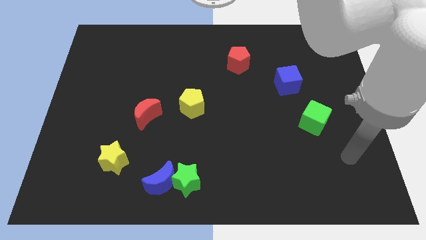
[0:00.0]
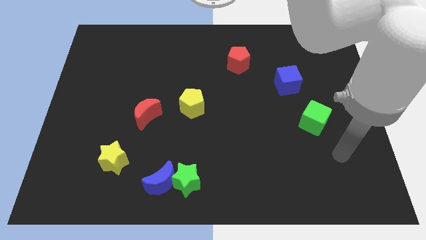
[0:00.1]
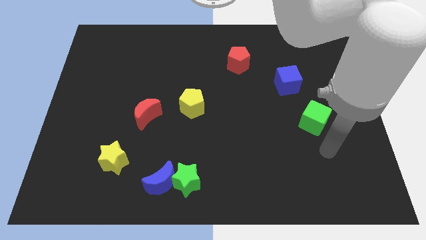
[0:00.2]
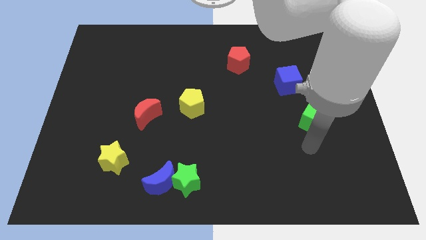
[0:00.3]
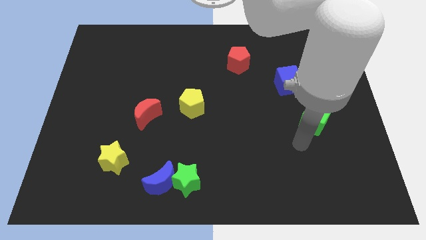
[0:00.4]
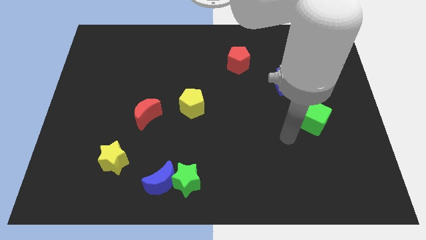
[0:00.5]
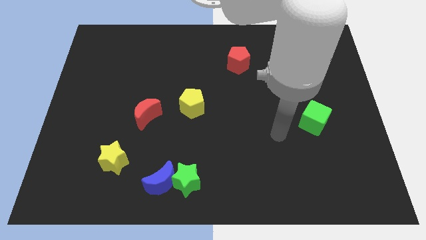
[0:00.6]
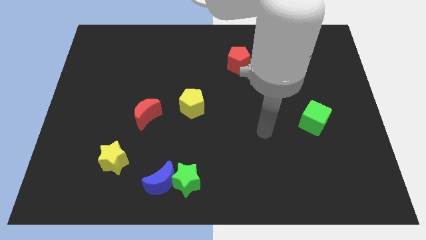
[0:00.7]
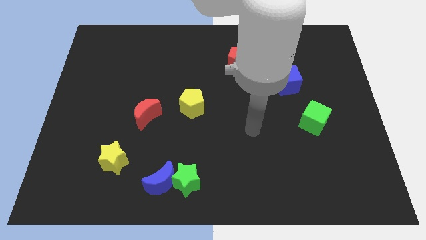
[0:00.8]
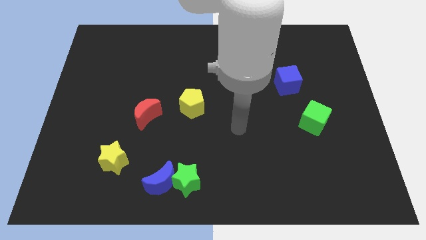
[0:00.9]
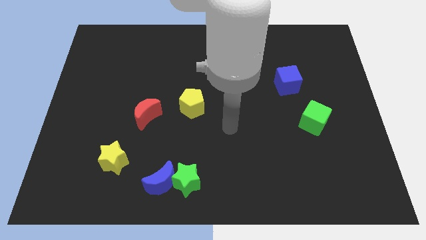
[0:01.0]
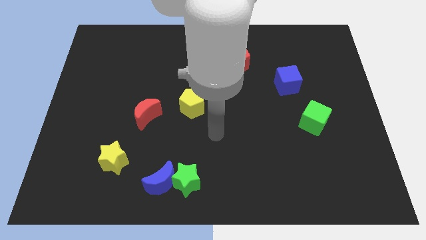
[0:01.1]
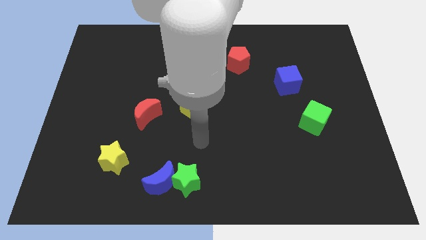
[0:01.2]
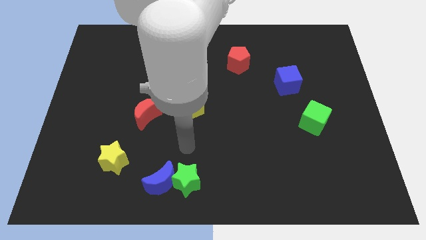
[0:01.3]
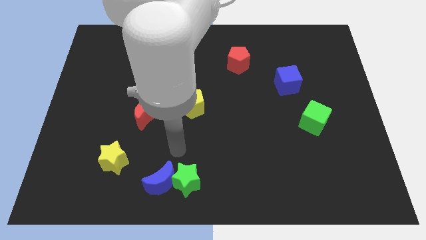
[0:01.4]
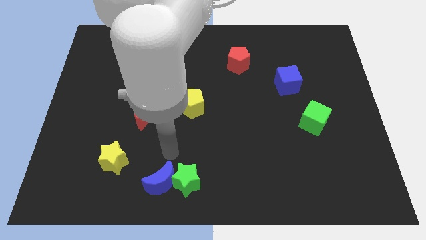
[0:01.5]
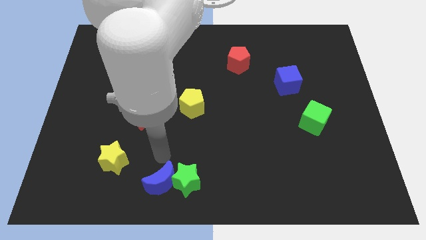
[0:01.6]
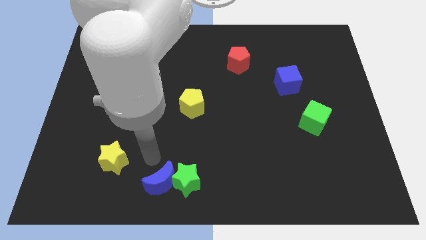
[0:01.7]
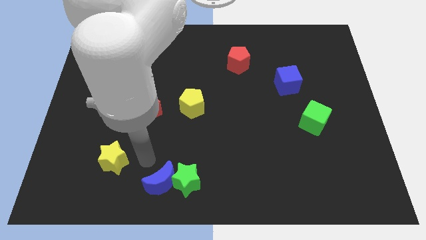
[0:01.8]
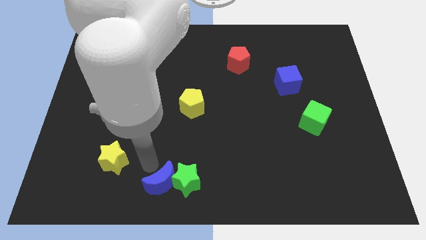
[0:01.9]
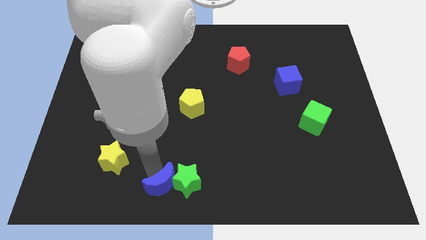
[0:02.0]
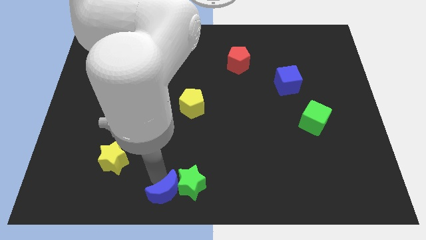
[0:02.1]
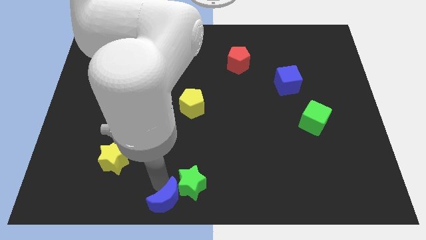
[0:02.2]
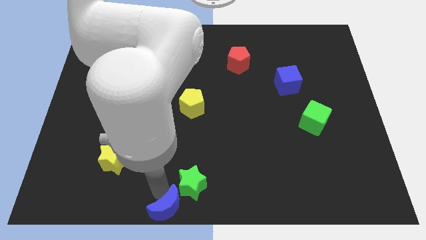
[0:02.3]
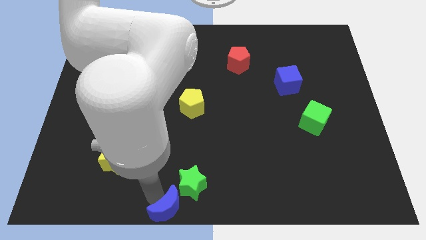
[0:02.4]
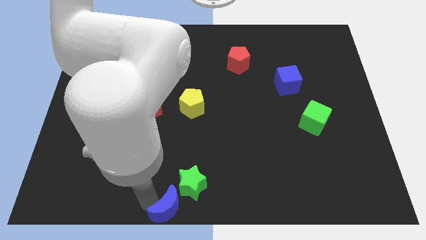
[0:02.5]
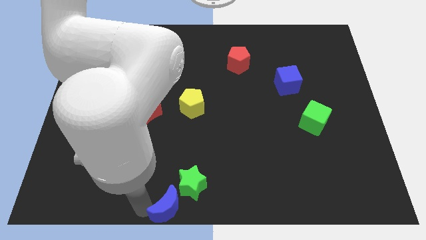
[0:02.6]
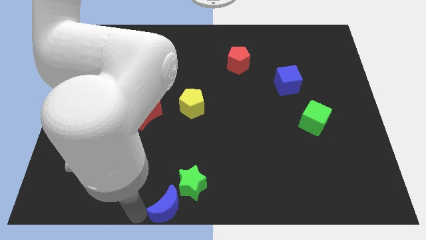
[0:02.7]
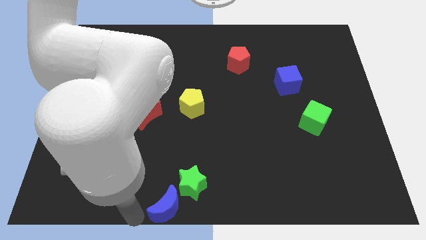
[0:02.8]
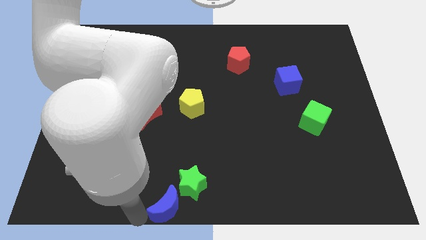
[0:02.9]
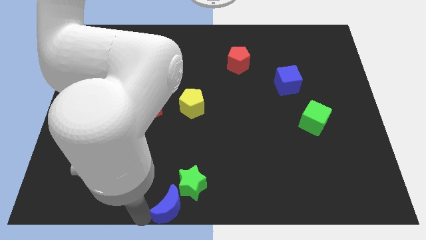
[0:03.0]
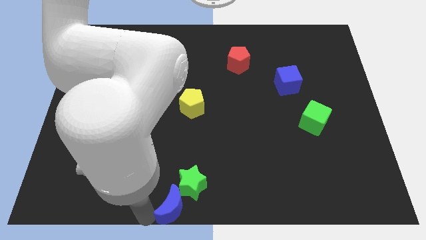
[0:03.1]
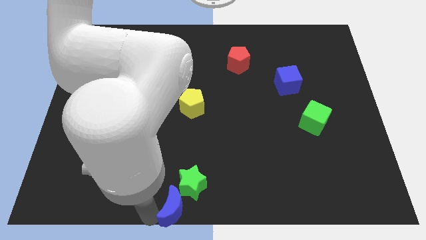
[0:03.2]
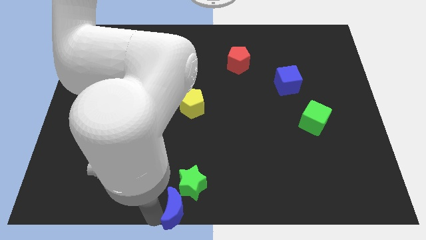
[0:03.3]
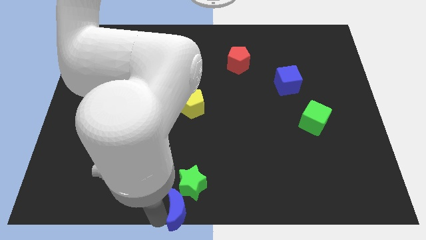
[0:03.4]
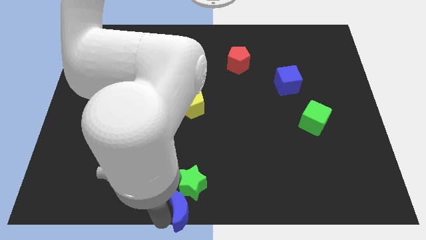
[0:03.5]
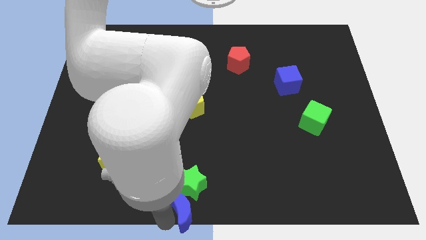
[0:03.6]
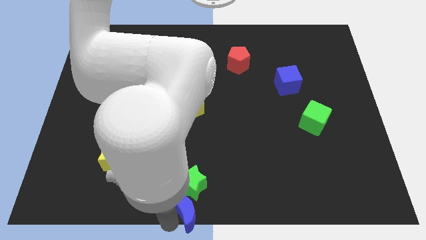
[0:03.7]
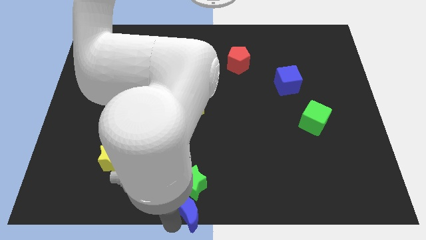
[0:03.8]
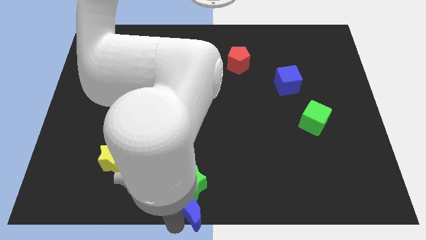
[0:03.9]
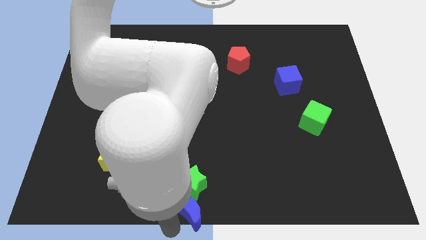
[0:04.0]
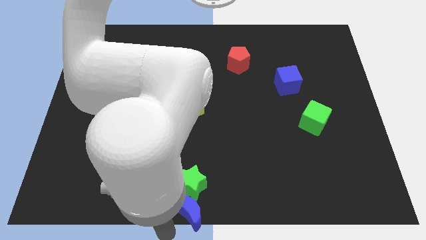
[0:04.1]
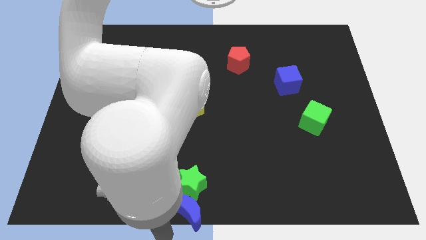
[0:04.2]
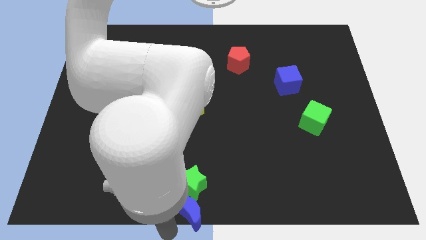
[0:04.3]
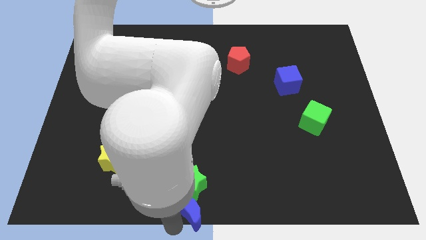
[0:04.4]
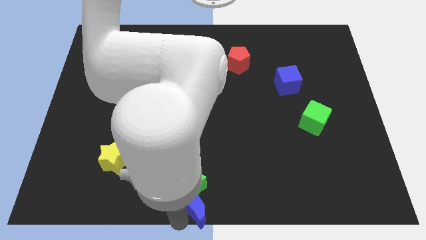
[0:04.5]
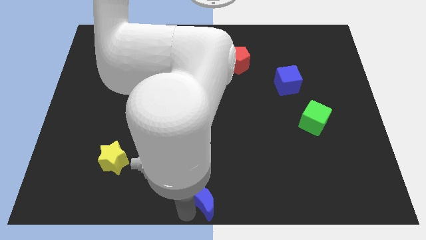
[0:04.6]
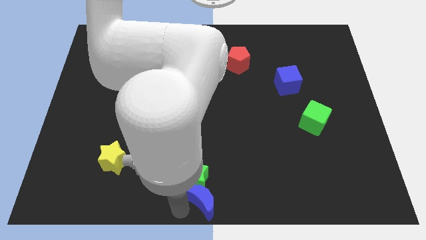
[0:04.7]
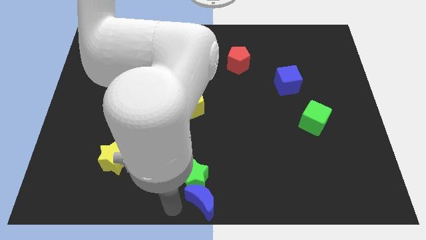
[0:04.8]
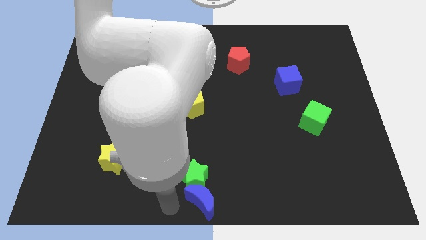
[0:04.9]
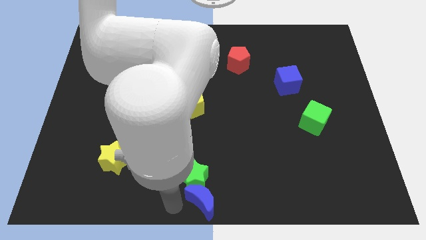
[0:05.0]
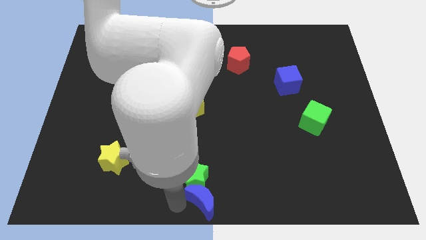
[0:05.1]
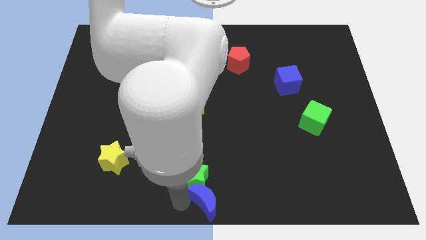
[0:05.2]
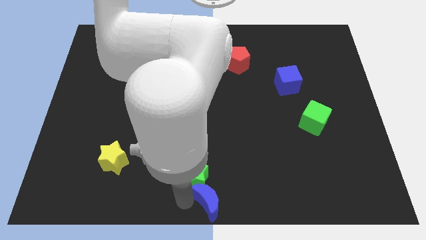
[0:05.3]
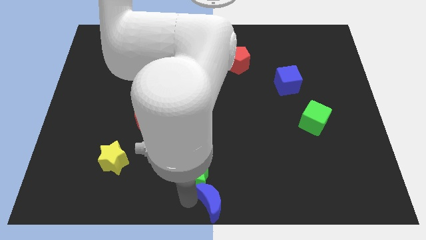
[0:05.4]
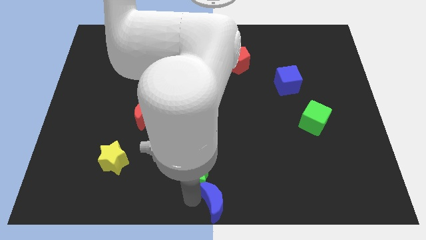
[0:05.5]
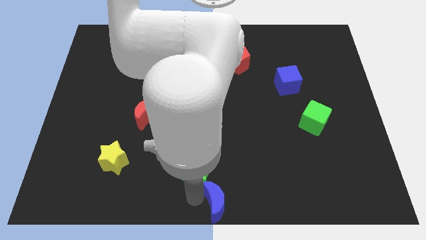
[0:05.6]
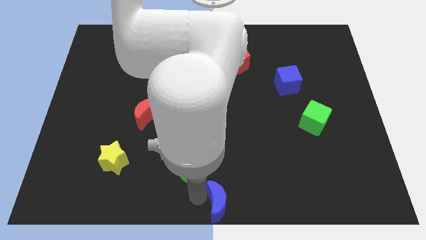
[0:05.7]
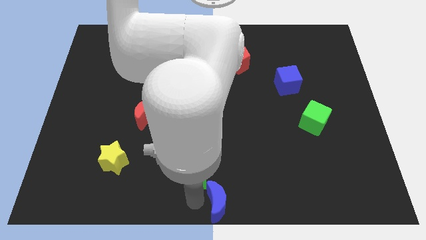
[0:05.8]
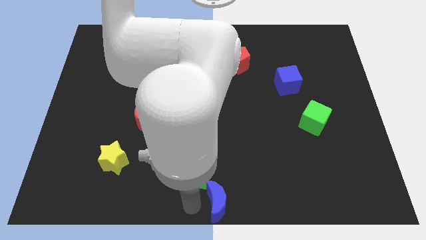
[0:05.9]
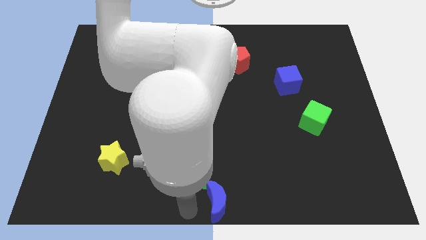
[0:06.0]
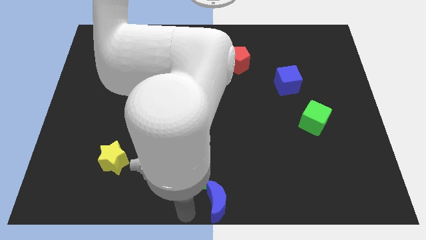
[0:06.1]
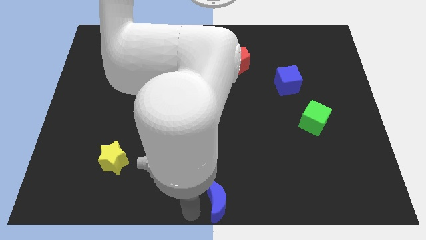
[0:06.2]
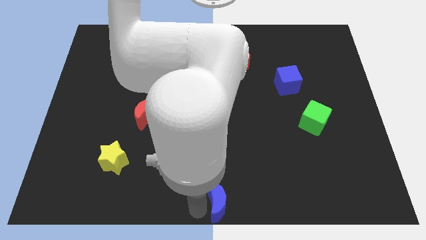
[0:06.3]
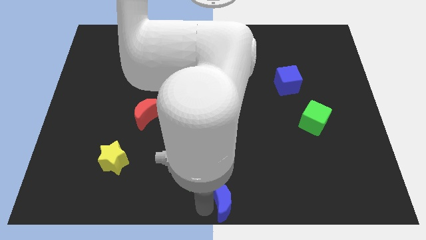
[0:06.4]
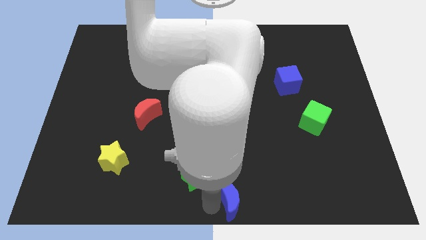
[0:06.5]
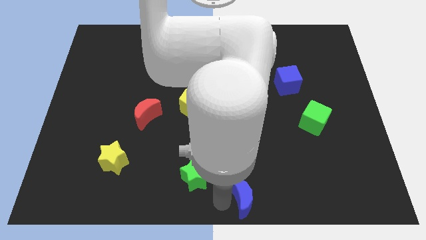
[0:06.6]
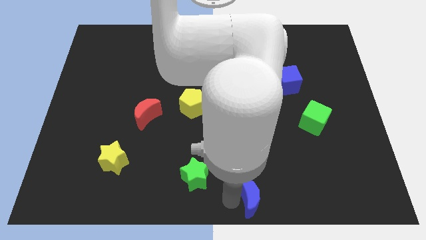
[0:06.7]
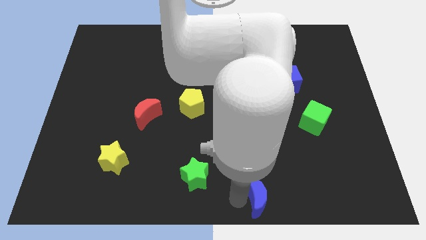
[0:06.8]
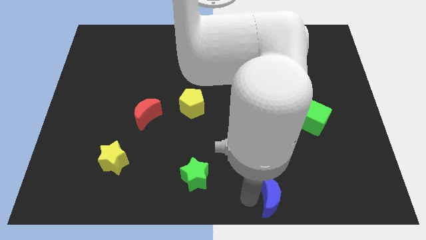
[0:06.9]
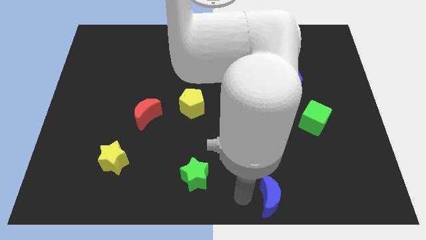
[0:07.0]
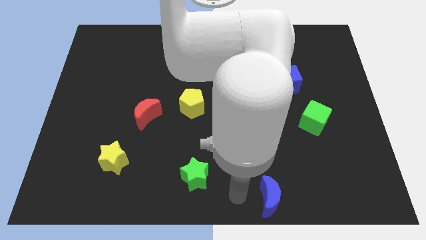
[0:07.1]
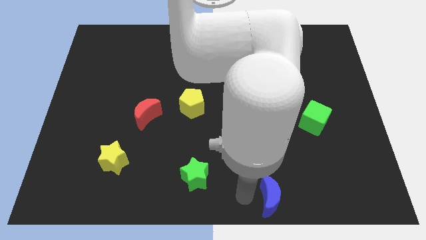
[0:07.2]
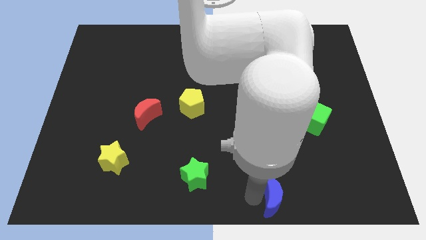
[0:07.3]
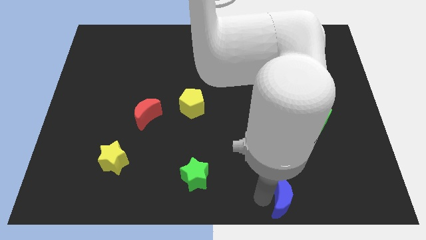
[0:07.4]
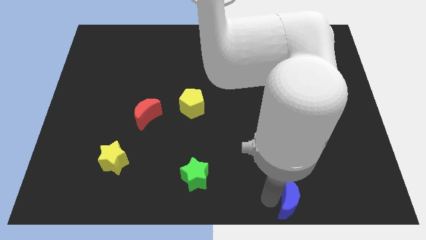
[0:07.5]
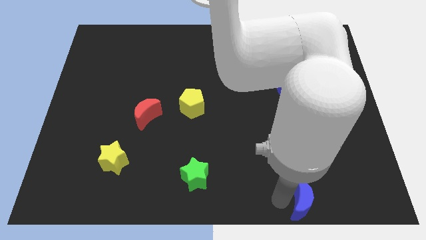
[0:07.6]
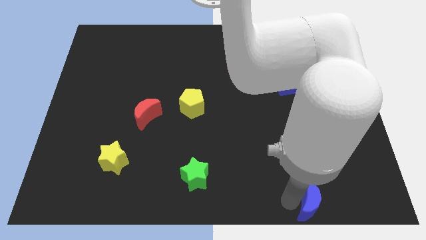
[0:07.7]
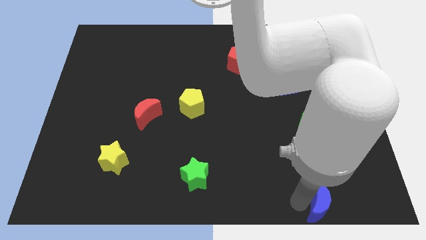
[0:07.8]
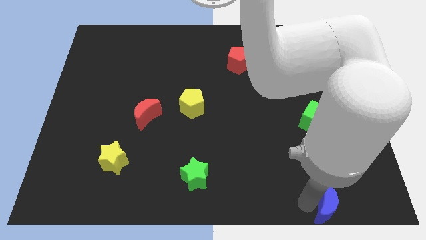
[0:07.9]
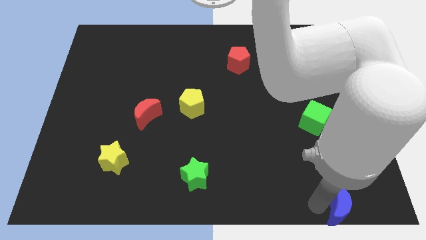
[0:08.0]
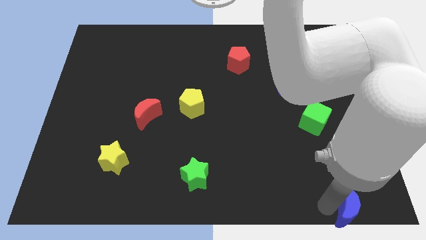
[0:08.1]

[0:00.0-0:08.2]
slide the blue moon to the bottom right
